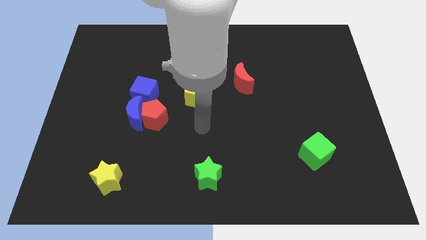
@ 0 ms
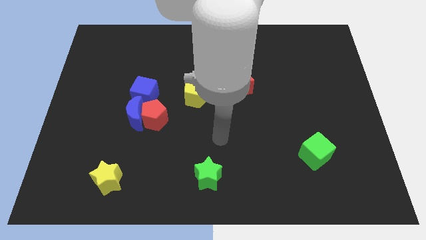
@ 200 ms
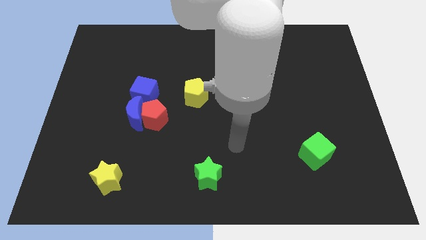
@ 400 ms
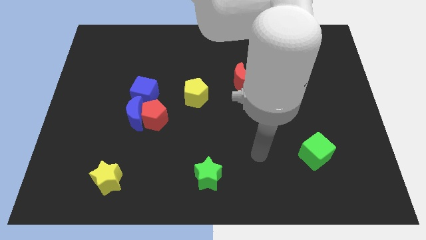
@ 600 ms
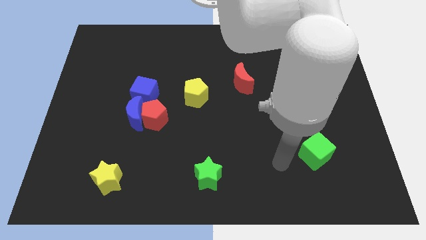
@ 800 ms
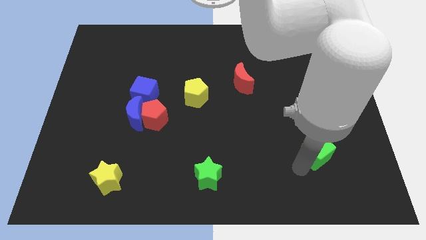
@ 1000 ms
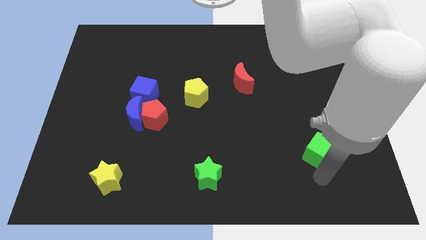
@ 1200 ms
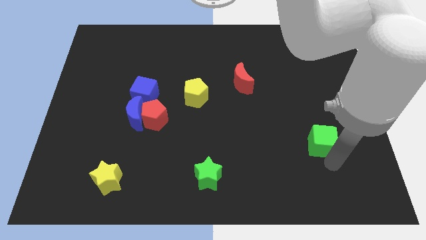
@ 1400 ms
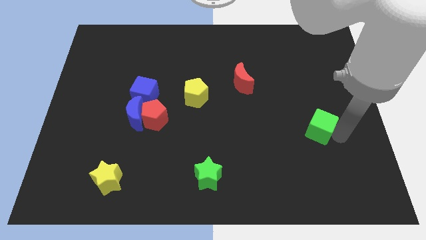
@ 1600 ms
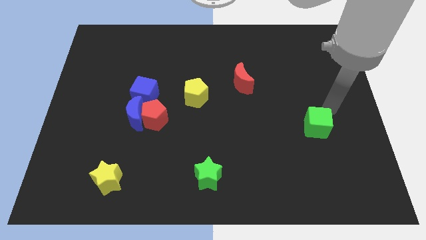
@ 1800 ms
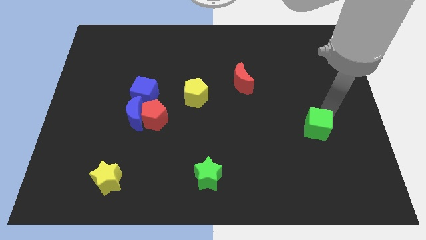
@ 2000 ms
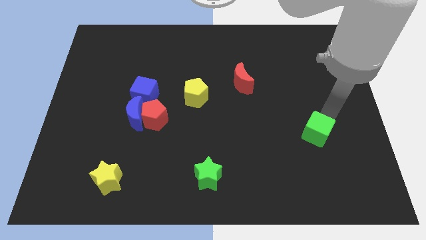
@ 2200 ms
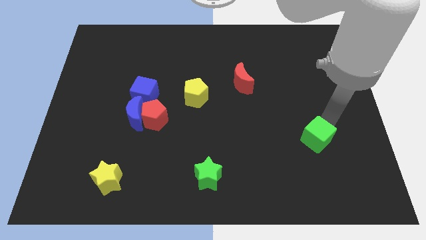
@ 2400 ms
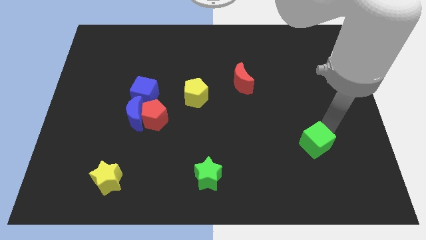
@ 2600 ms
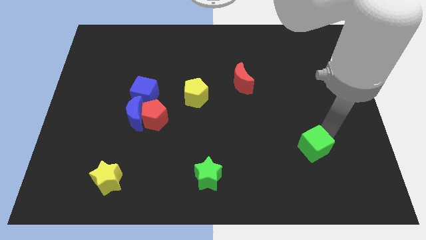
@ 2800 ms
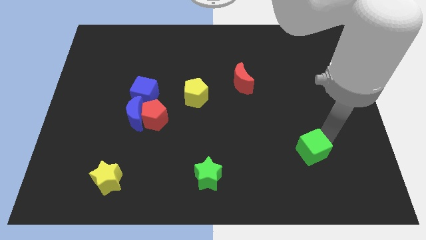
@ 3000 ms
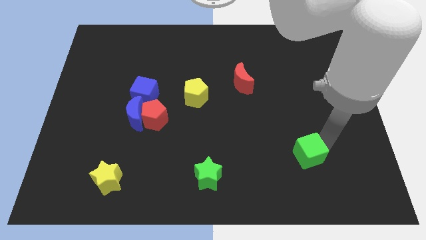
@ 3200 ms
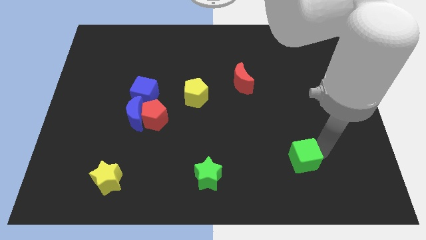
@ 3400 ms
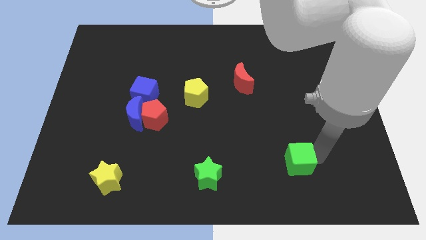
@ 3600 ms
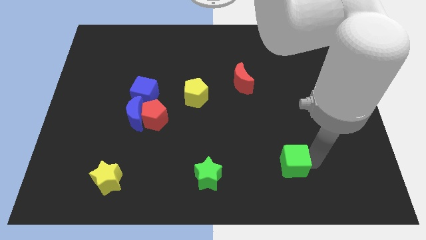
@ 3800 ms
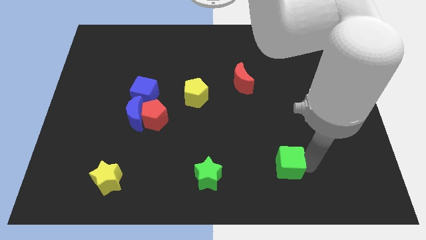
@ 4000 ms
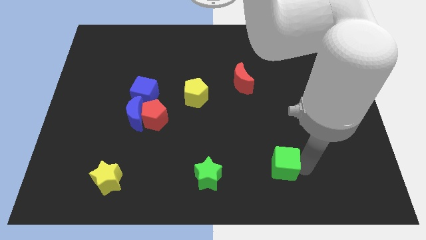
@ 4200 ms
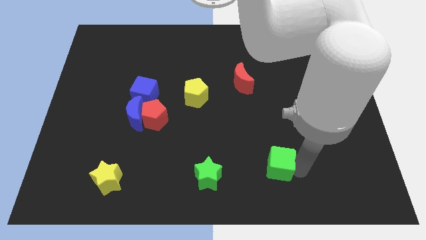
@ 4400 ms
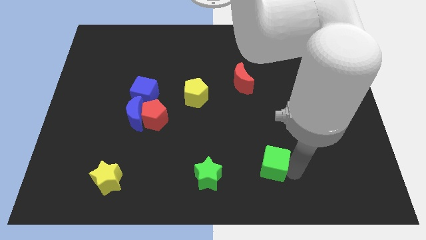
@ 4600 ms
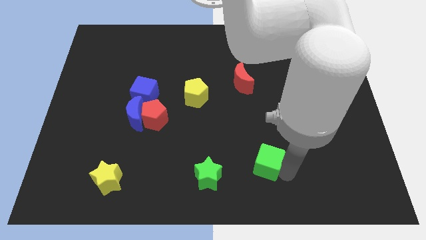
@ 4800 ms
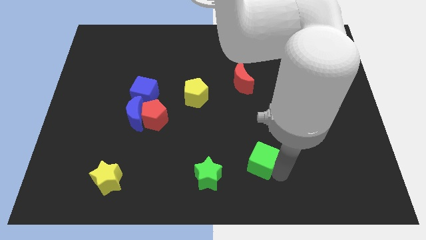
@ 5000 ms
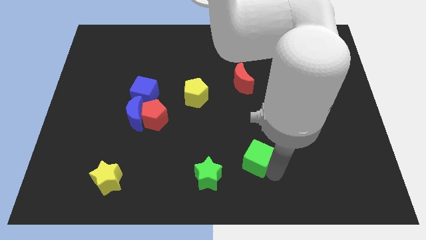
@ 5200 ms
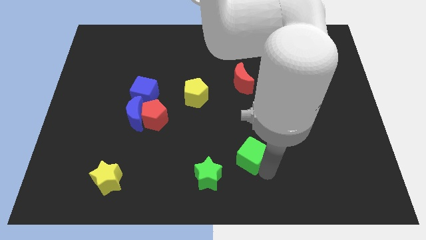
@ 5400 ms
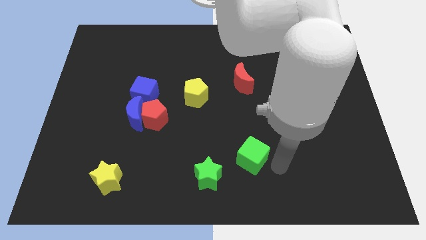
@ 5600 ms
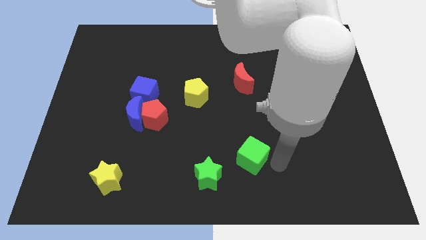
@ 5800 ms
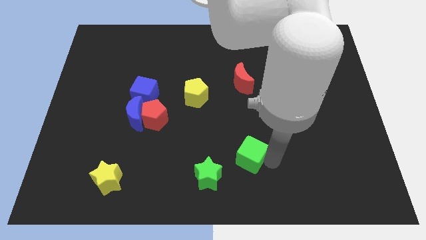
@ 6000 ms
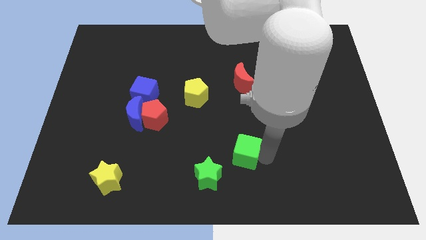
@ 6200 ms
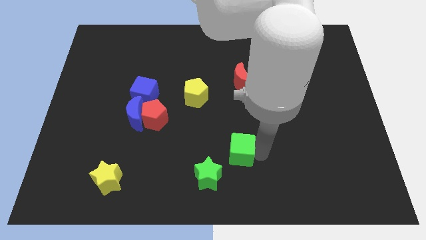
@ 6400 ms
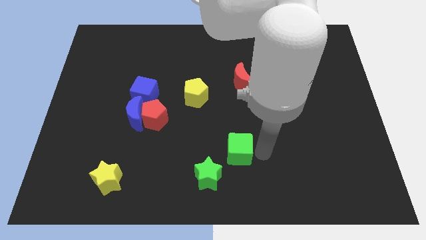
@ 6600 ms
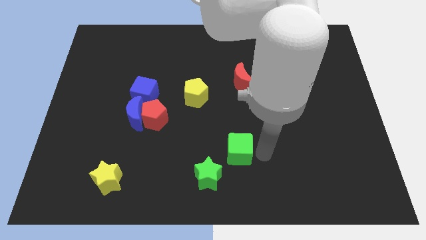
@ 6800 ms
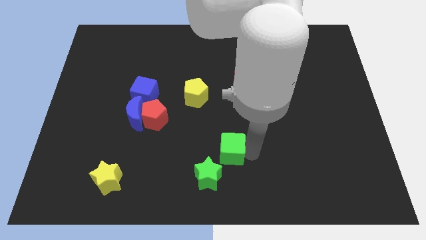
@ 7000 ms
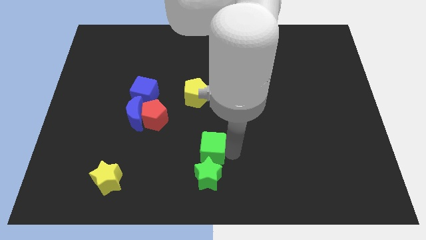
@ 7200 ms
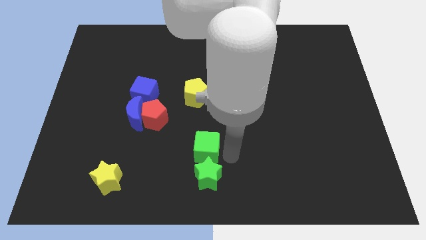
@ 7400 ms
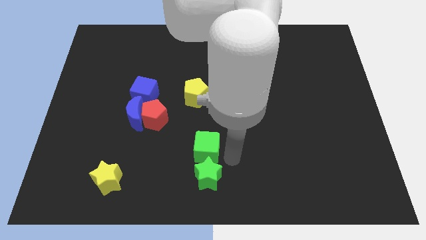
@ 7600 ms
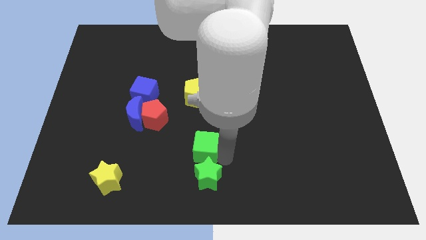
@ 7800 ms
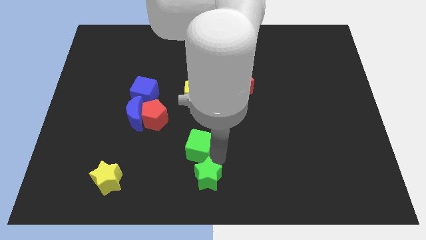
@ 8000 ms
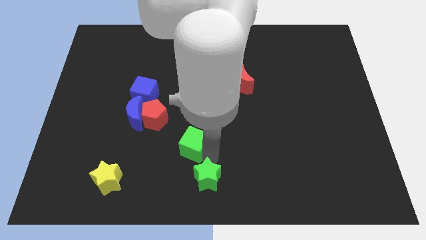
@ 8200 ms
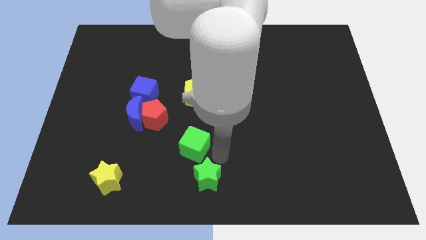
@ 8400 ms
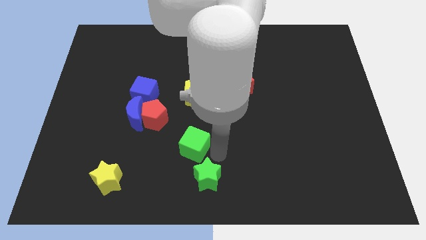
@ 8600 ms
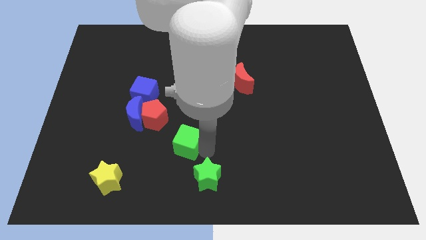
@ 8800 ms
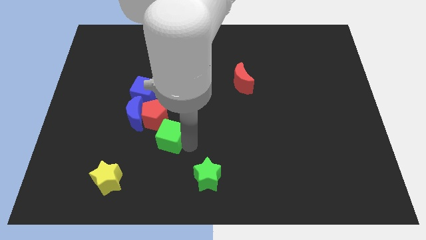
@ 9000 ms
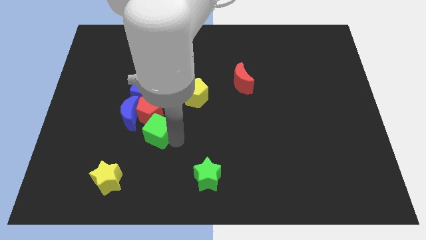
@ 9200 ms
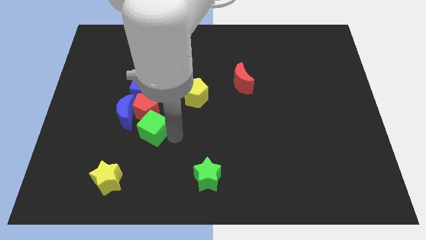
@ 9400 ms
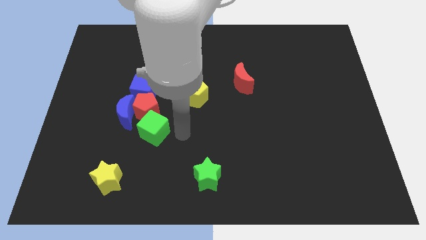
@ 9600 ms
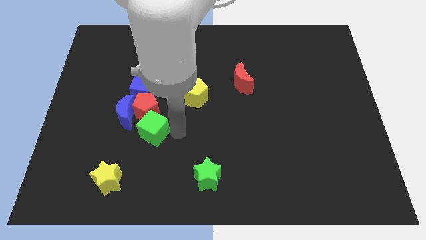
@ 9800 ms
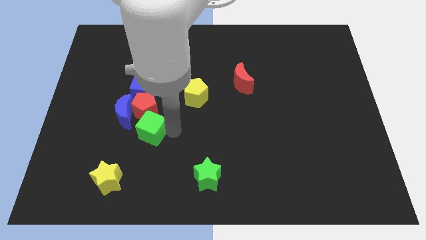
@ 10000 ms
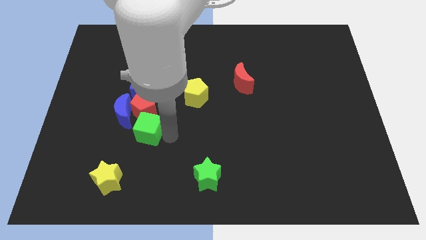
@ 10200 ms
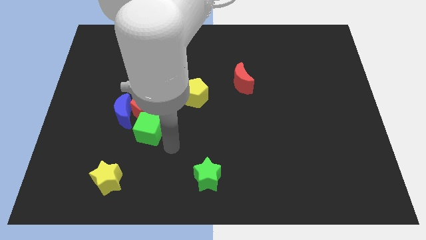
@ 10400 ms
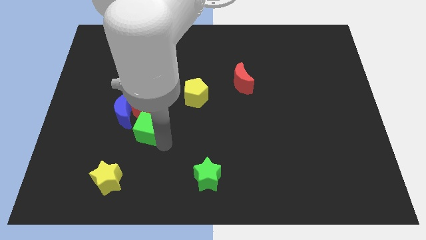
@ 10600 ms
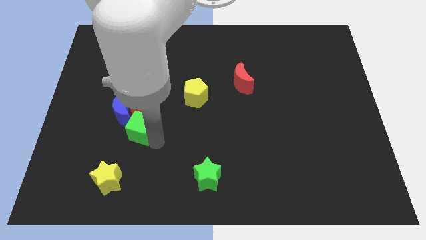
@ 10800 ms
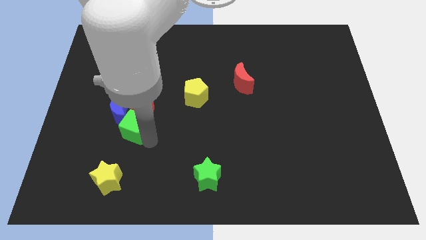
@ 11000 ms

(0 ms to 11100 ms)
push the green cube to the blue moon

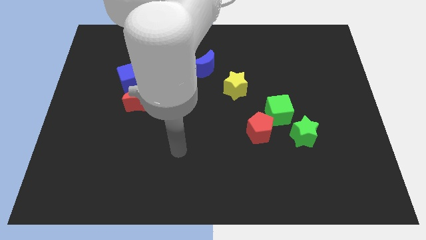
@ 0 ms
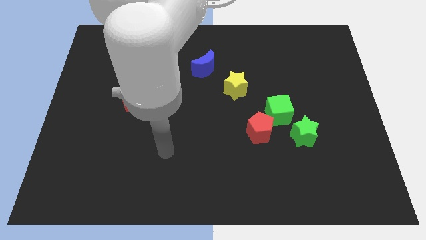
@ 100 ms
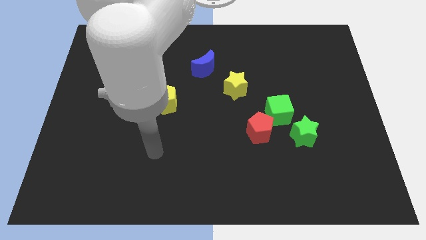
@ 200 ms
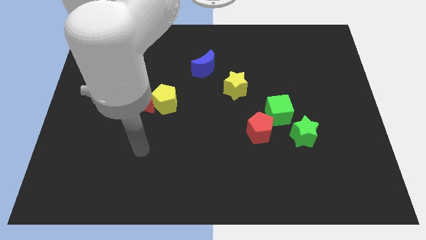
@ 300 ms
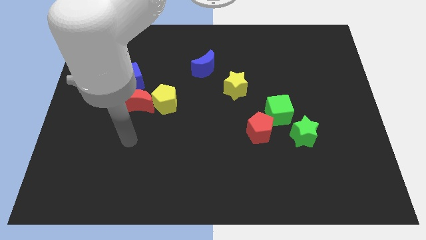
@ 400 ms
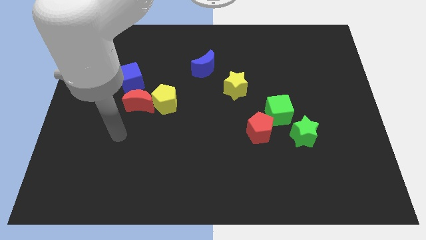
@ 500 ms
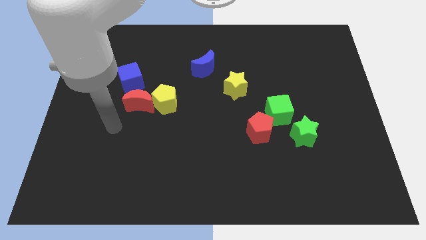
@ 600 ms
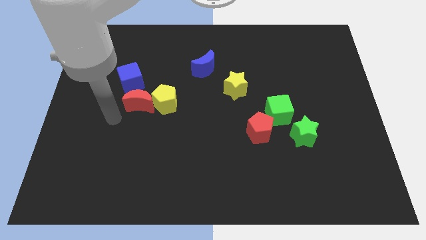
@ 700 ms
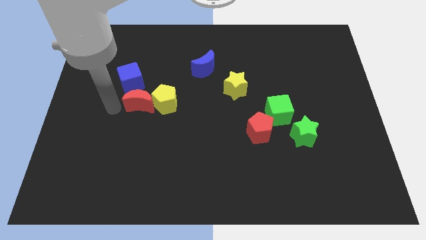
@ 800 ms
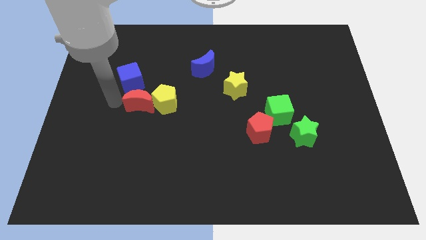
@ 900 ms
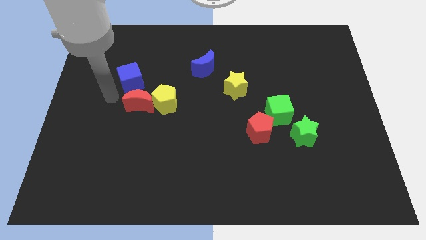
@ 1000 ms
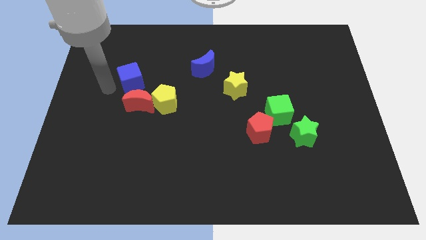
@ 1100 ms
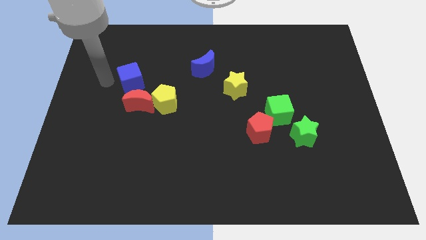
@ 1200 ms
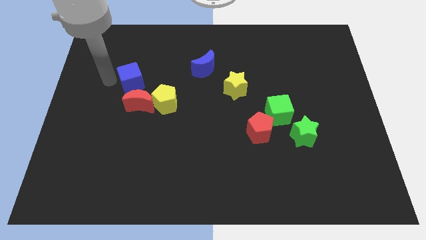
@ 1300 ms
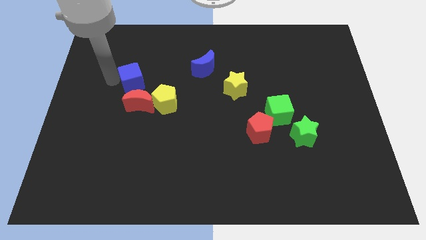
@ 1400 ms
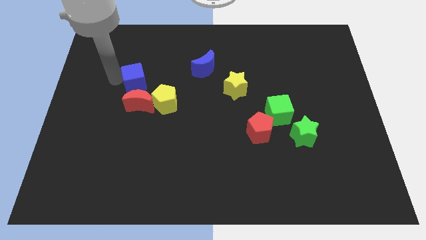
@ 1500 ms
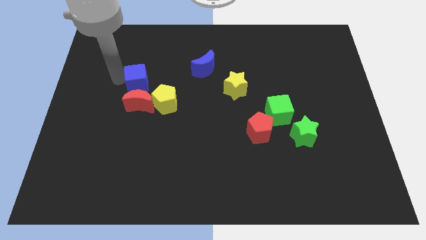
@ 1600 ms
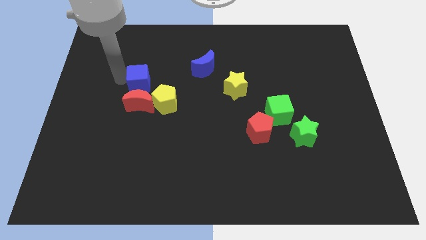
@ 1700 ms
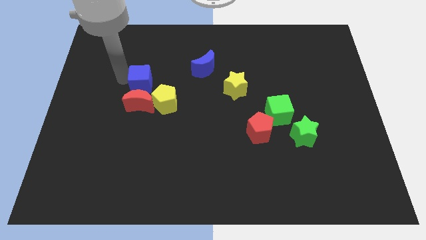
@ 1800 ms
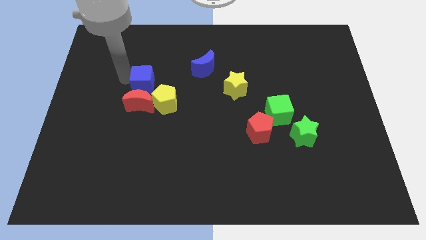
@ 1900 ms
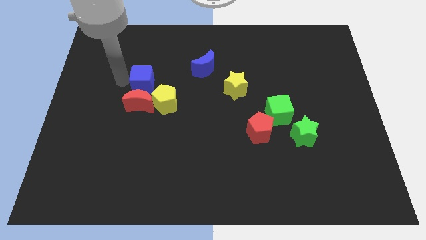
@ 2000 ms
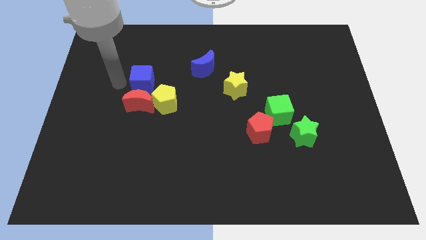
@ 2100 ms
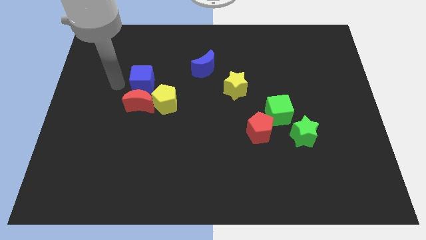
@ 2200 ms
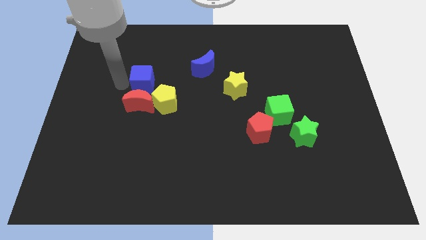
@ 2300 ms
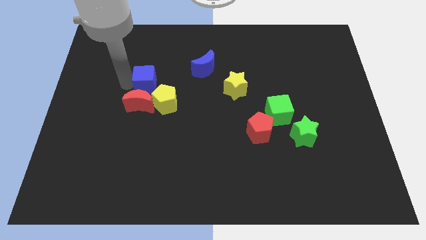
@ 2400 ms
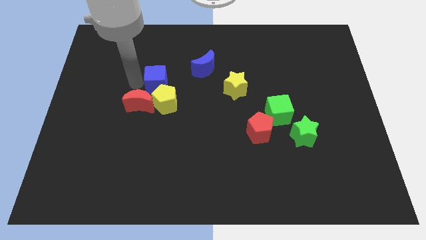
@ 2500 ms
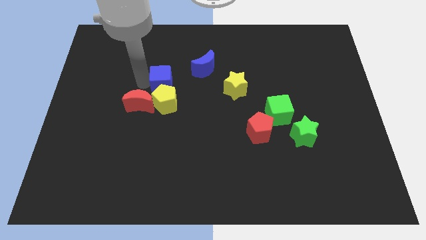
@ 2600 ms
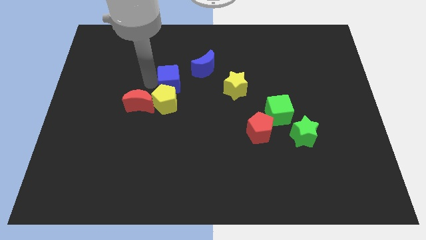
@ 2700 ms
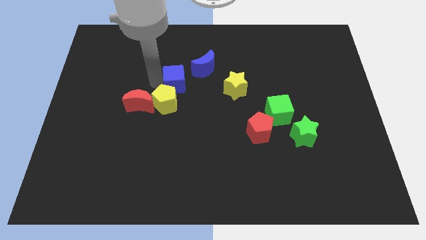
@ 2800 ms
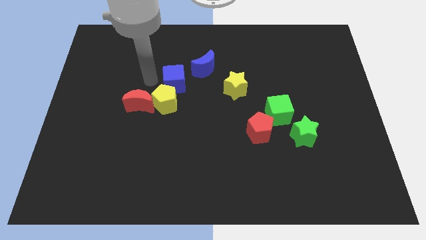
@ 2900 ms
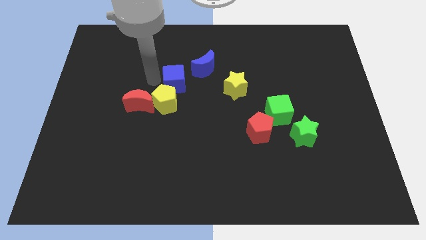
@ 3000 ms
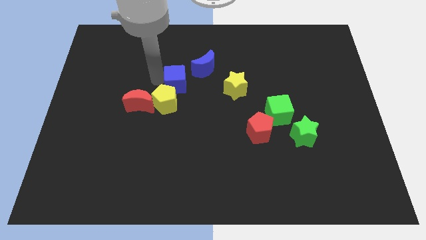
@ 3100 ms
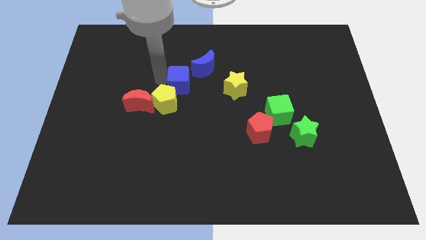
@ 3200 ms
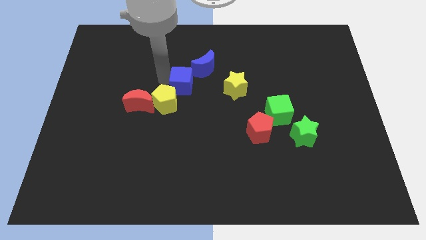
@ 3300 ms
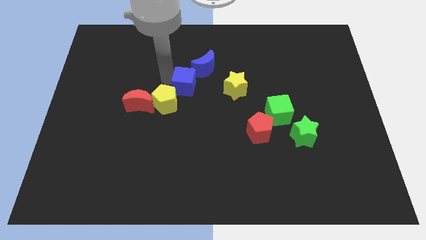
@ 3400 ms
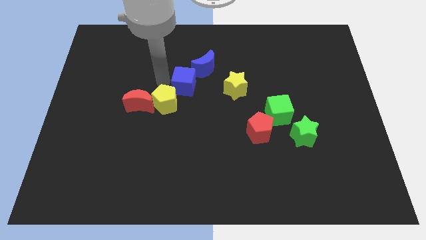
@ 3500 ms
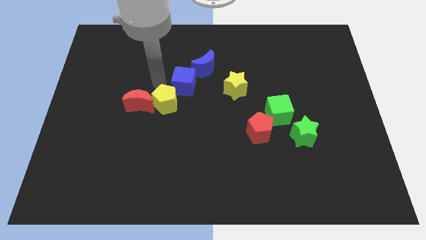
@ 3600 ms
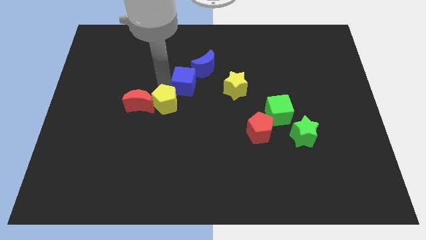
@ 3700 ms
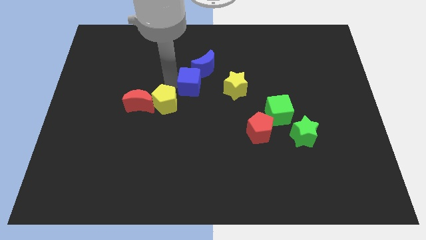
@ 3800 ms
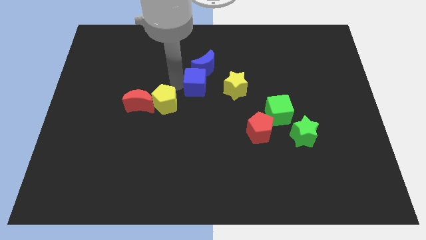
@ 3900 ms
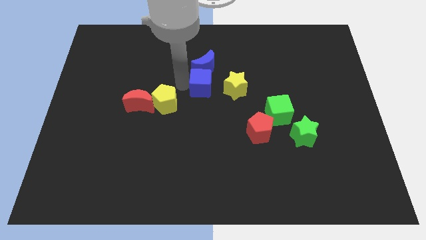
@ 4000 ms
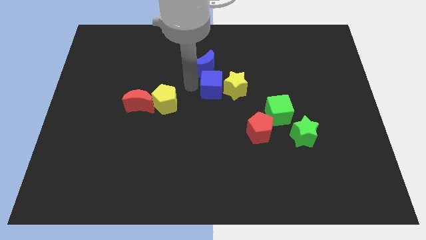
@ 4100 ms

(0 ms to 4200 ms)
slide the blue cube close to the yellow star
